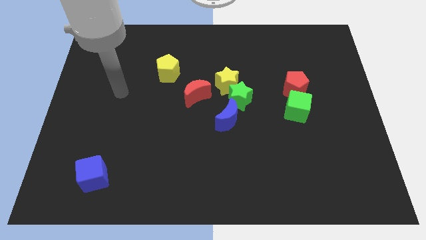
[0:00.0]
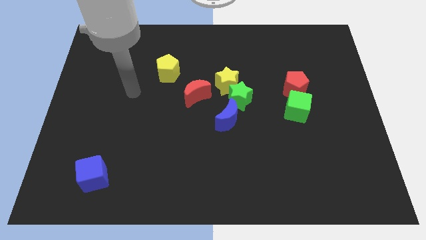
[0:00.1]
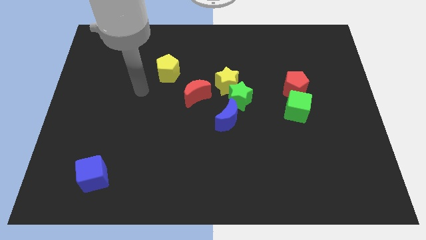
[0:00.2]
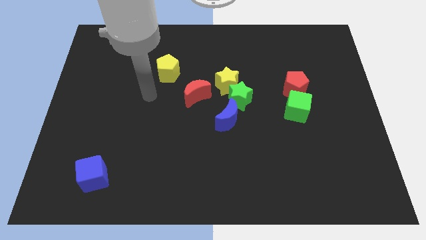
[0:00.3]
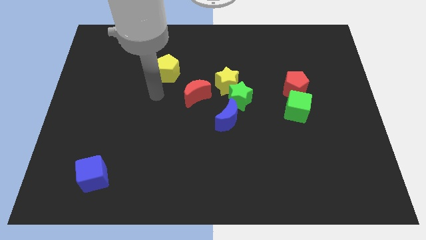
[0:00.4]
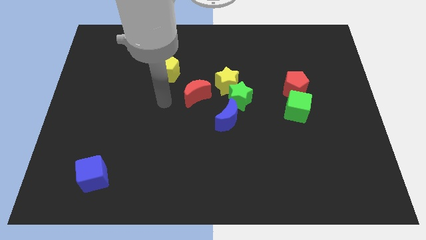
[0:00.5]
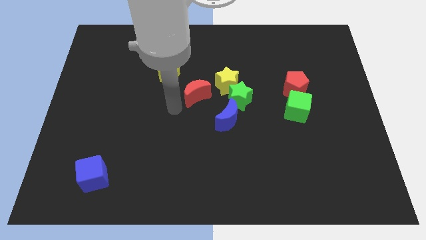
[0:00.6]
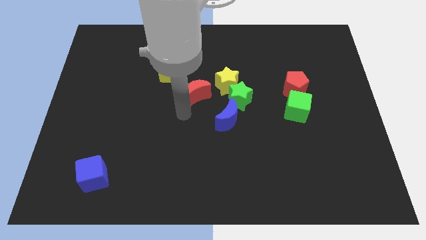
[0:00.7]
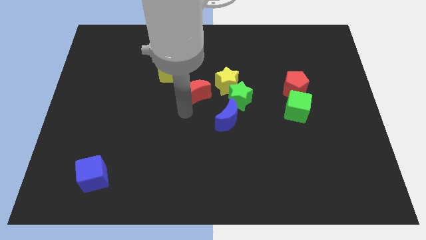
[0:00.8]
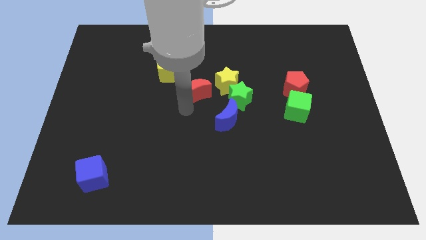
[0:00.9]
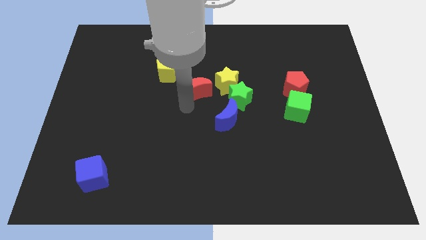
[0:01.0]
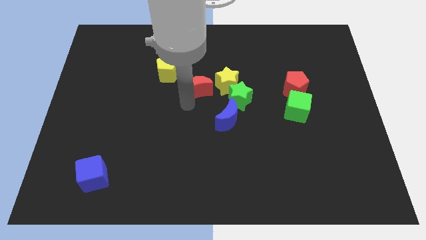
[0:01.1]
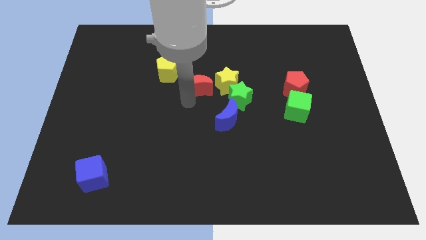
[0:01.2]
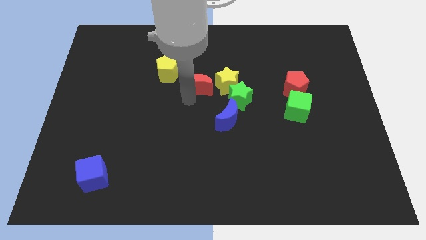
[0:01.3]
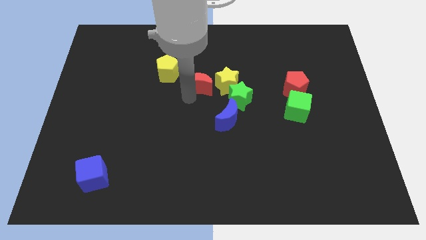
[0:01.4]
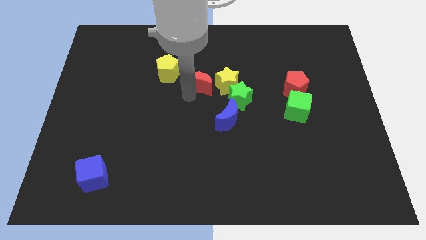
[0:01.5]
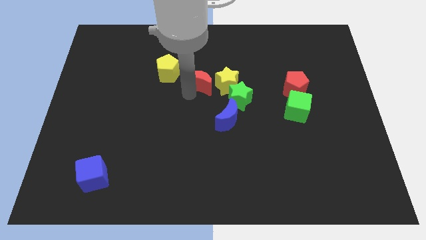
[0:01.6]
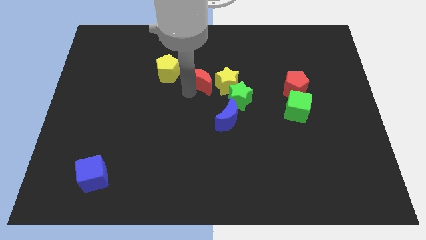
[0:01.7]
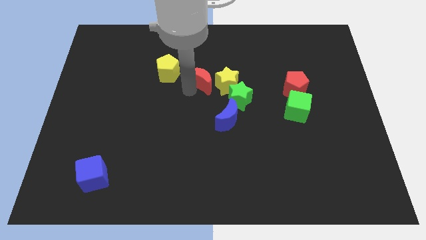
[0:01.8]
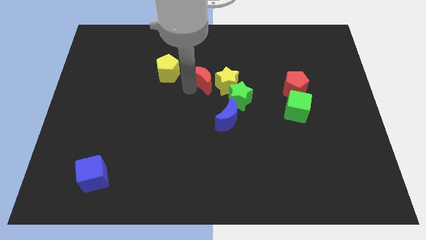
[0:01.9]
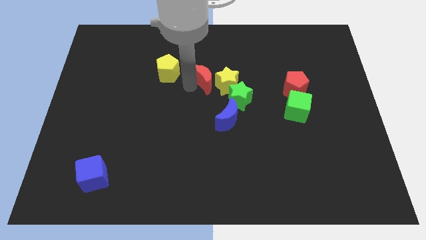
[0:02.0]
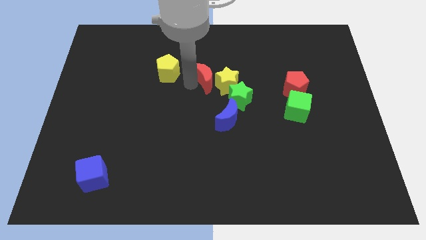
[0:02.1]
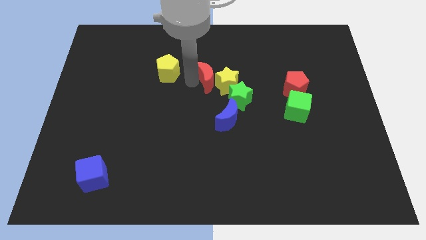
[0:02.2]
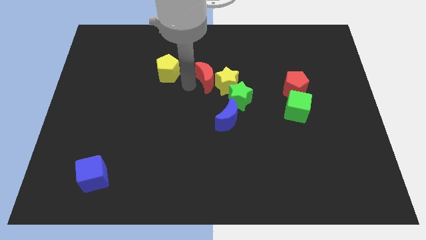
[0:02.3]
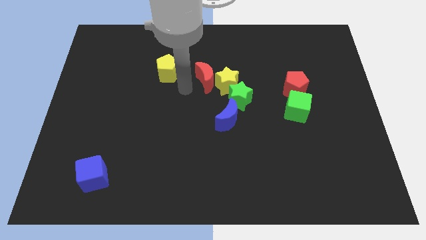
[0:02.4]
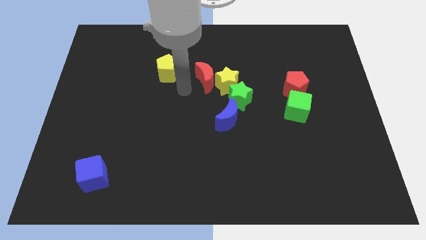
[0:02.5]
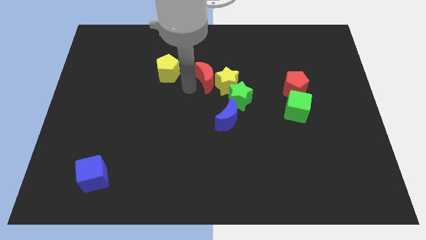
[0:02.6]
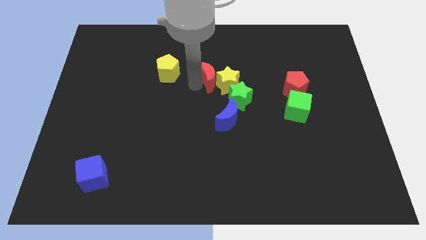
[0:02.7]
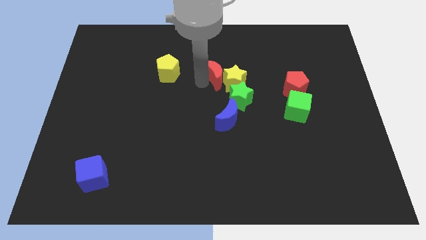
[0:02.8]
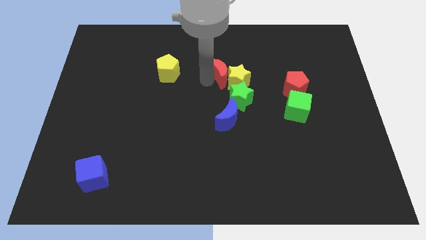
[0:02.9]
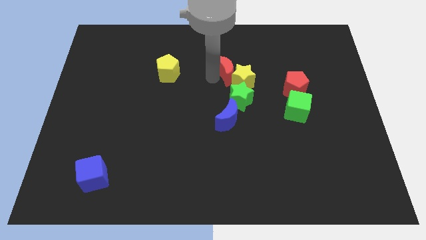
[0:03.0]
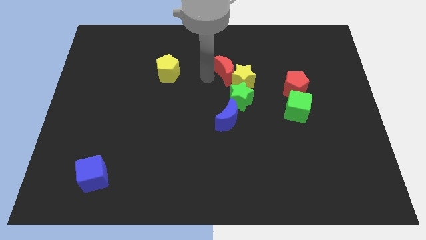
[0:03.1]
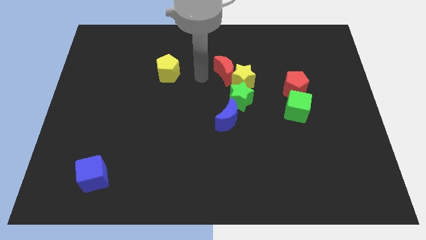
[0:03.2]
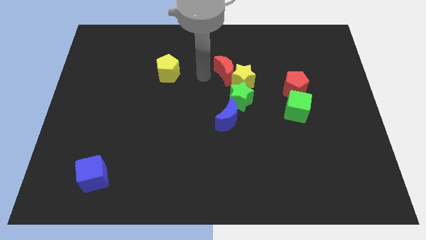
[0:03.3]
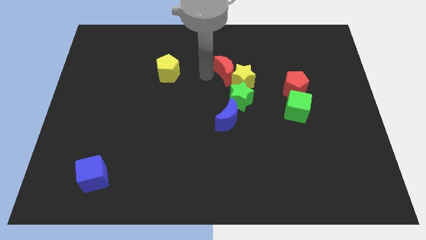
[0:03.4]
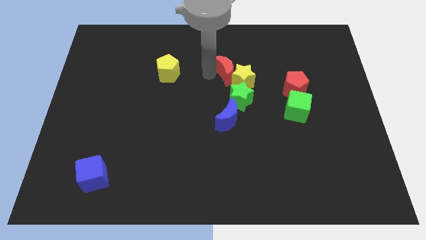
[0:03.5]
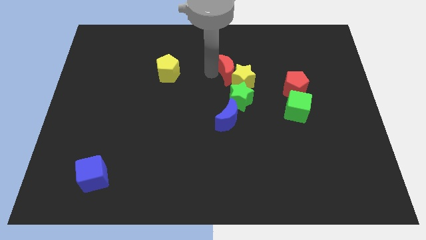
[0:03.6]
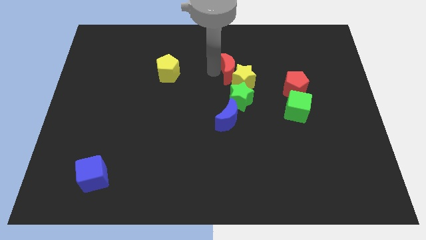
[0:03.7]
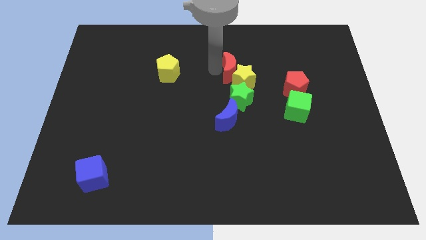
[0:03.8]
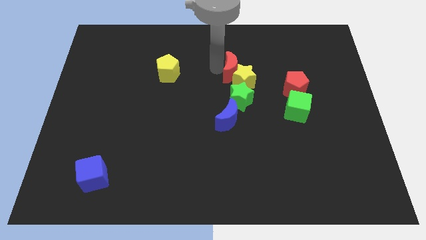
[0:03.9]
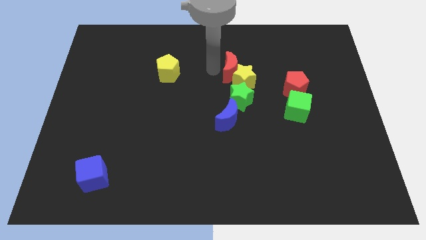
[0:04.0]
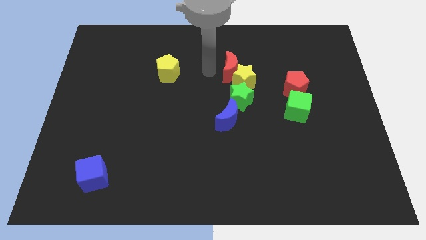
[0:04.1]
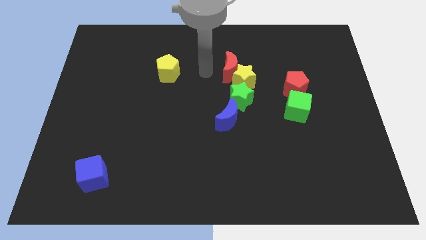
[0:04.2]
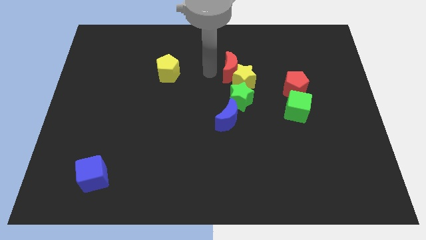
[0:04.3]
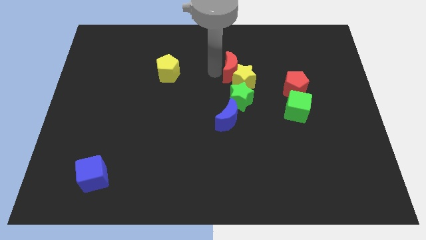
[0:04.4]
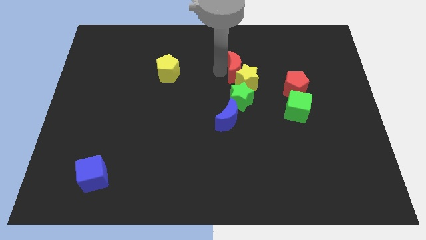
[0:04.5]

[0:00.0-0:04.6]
move the red moon right a bit

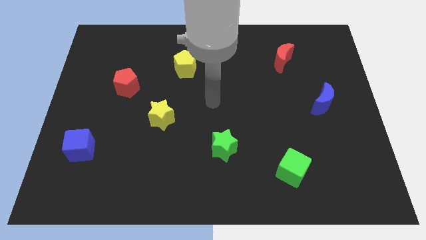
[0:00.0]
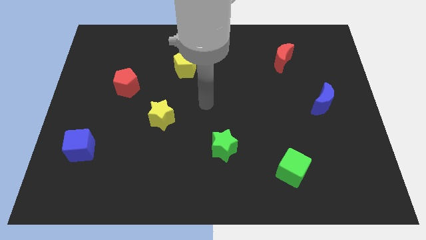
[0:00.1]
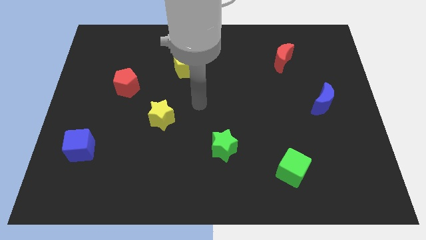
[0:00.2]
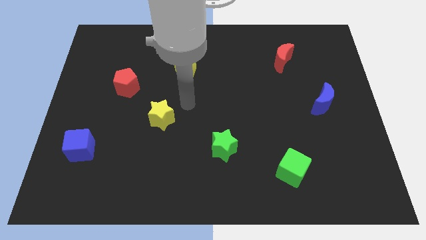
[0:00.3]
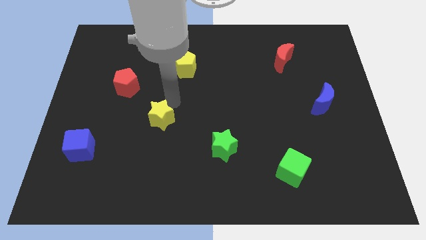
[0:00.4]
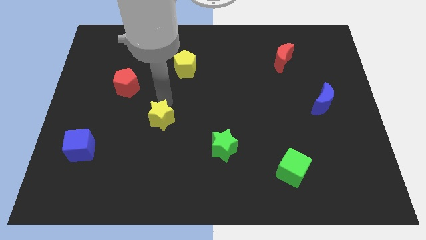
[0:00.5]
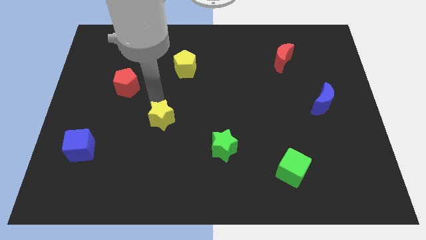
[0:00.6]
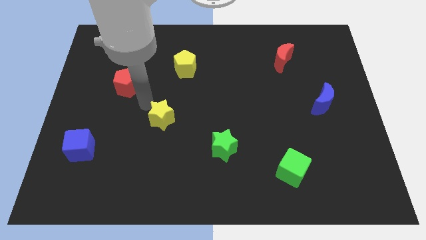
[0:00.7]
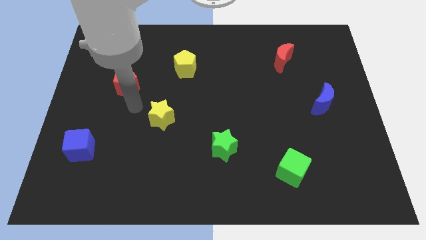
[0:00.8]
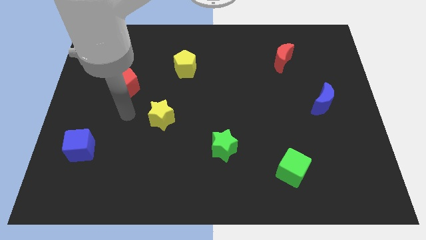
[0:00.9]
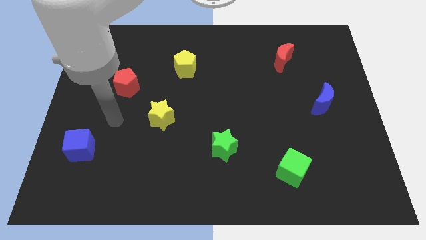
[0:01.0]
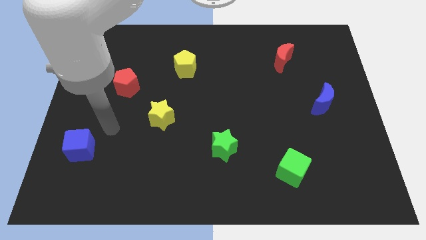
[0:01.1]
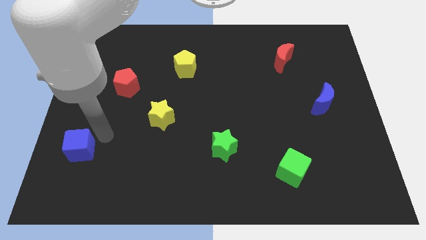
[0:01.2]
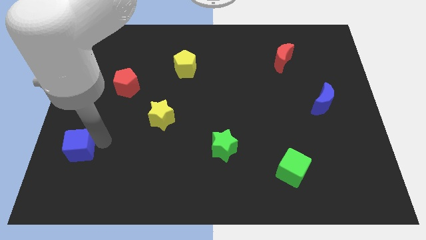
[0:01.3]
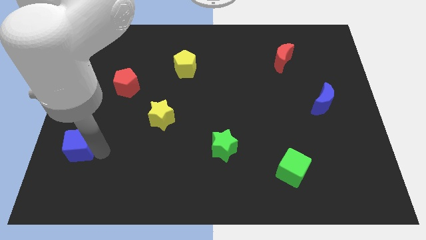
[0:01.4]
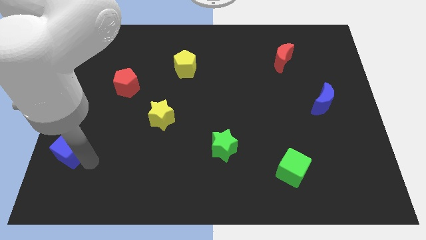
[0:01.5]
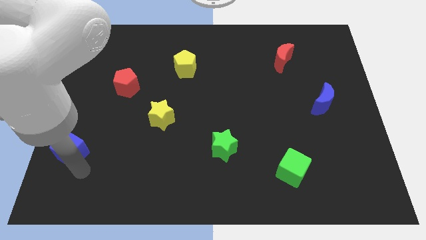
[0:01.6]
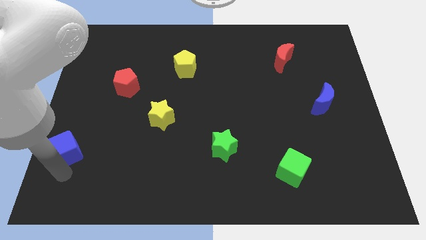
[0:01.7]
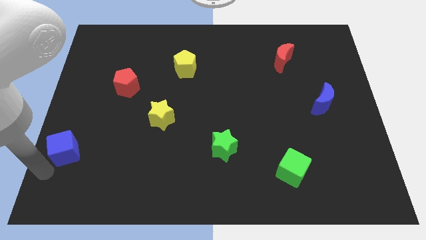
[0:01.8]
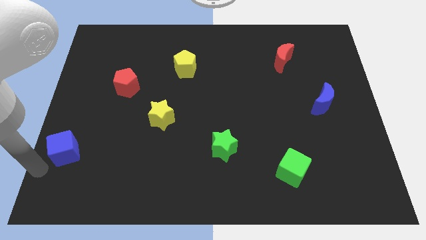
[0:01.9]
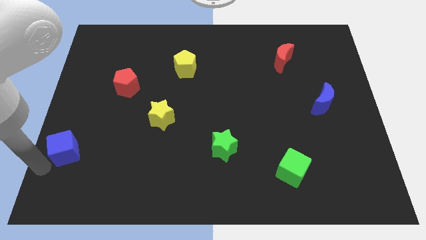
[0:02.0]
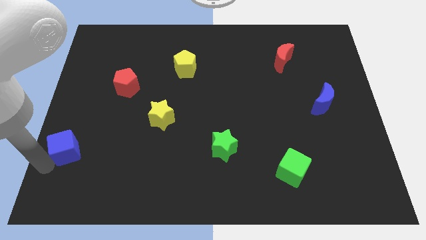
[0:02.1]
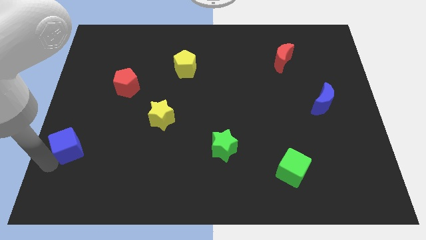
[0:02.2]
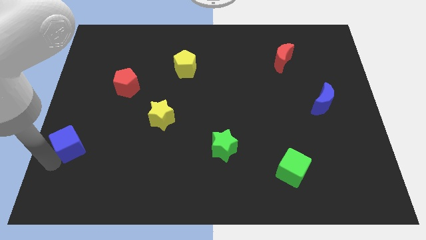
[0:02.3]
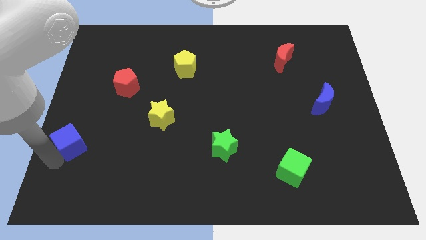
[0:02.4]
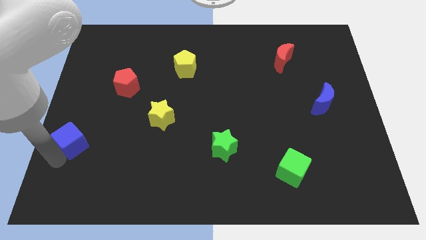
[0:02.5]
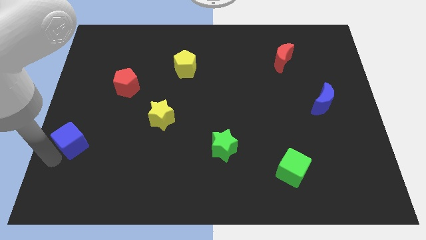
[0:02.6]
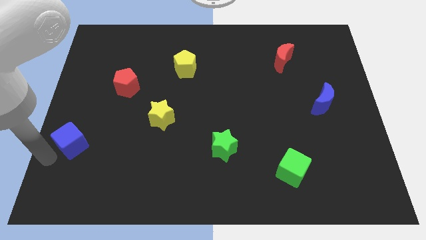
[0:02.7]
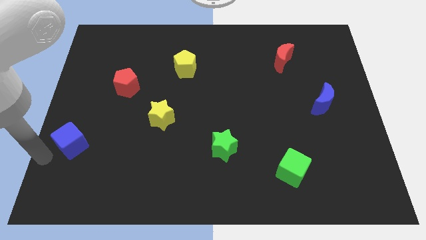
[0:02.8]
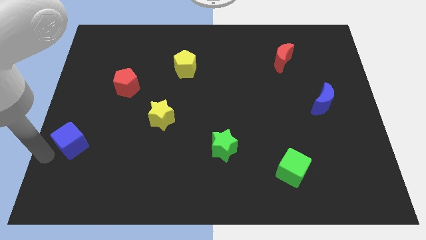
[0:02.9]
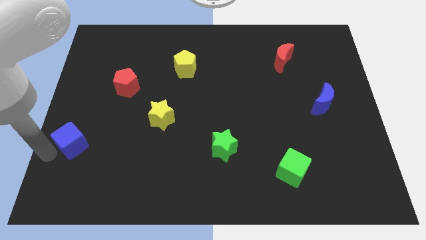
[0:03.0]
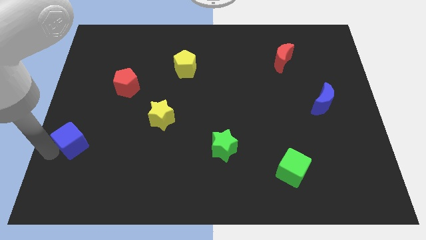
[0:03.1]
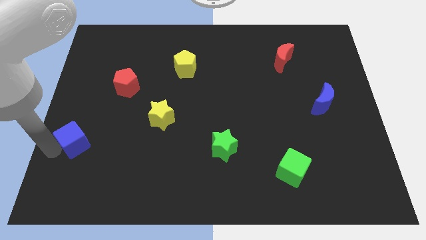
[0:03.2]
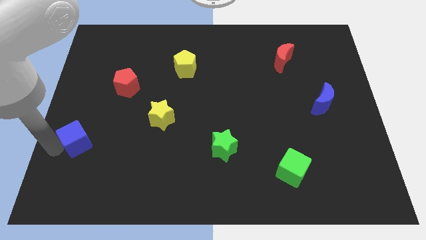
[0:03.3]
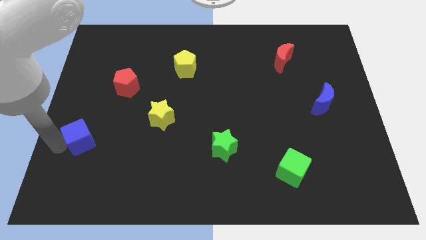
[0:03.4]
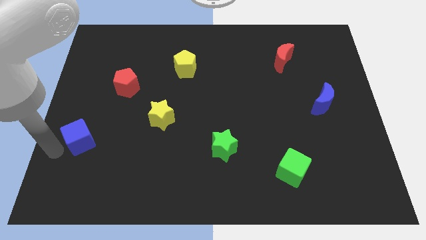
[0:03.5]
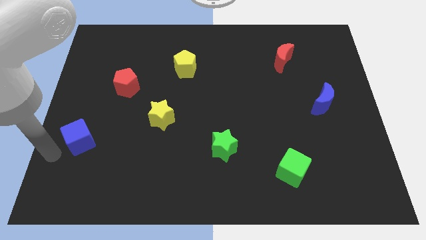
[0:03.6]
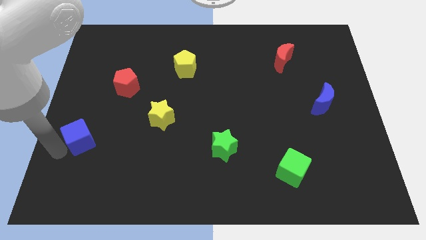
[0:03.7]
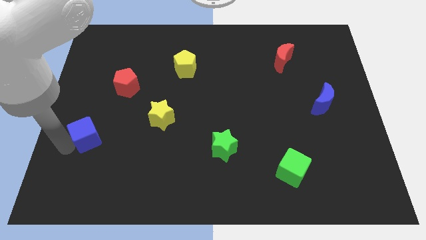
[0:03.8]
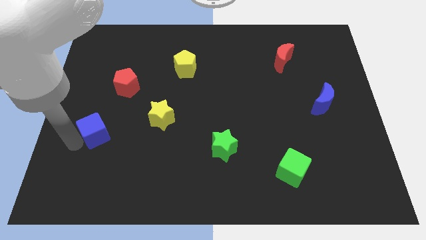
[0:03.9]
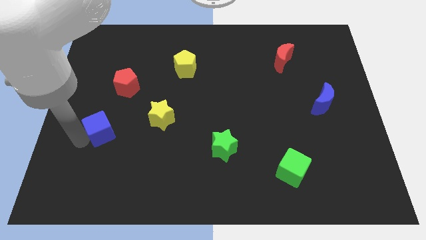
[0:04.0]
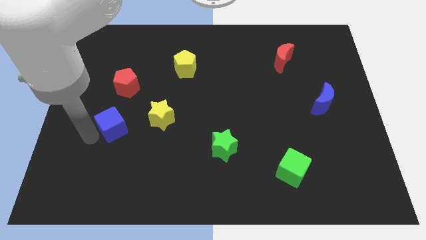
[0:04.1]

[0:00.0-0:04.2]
slightly push the blue cube up and then right
